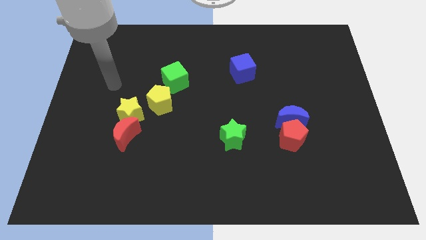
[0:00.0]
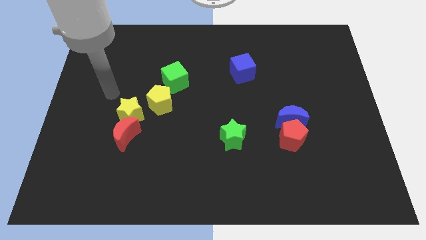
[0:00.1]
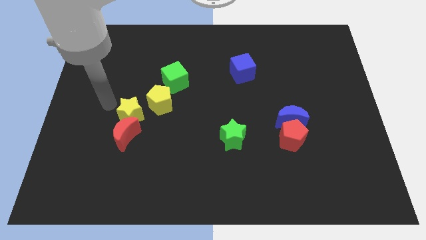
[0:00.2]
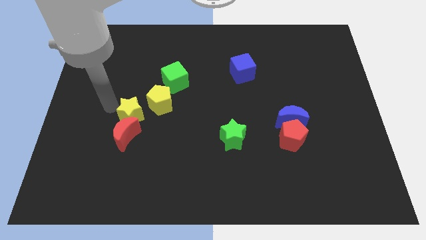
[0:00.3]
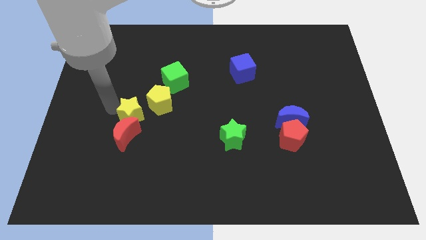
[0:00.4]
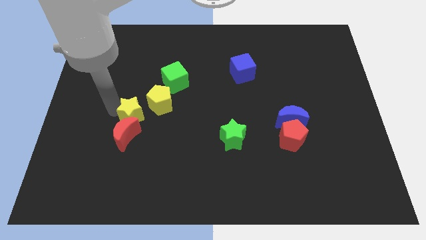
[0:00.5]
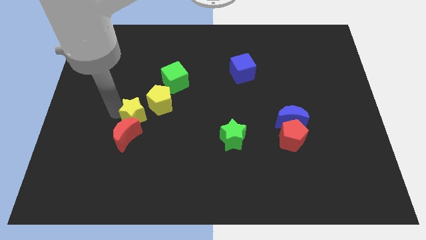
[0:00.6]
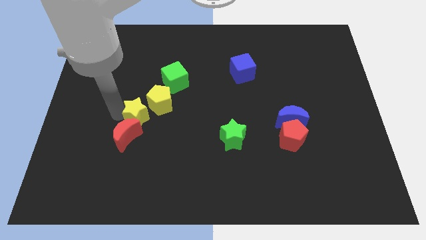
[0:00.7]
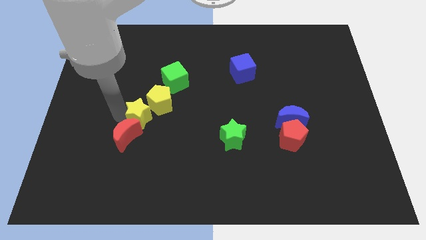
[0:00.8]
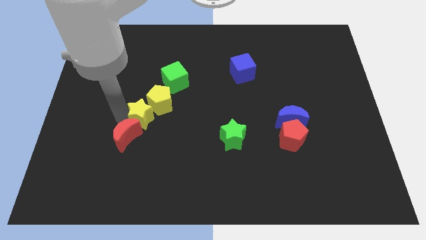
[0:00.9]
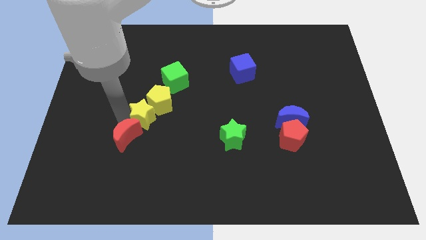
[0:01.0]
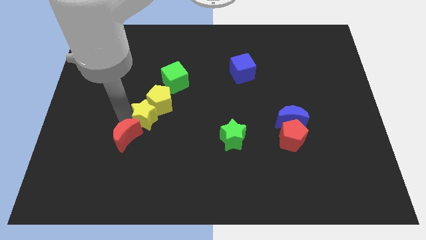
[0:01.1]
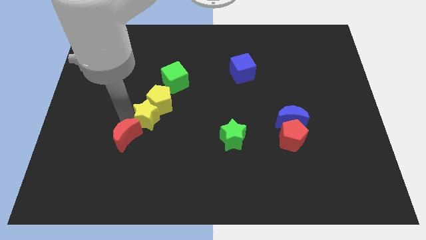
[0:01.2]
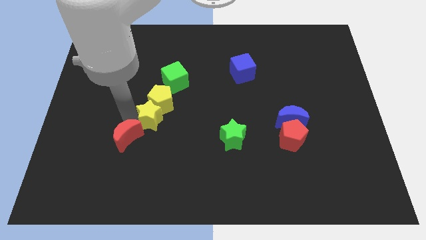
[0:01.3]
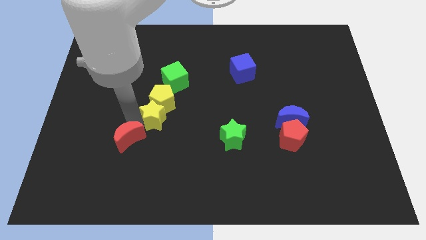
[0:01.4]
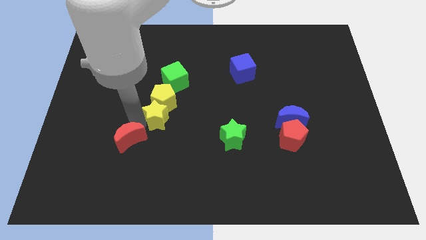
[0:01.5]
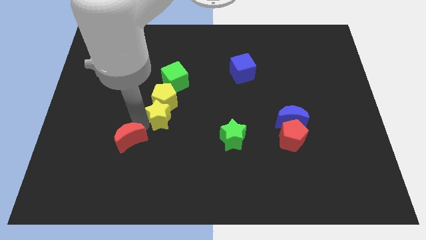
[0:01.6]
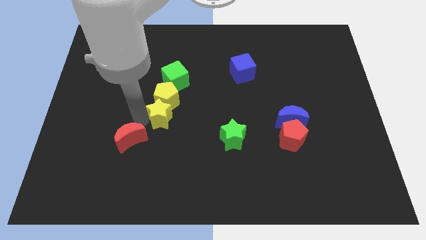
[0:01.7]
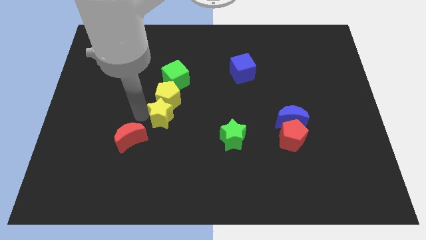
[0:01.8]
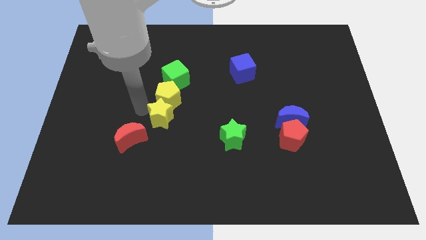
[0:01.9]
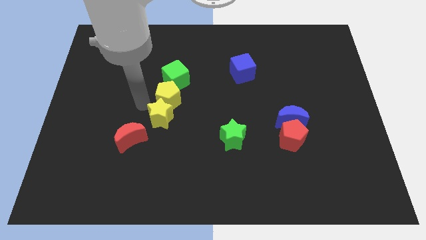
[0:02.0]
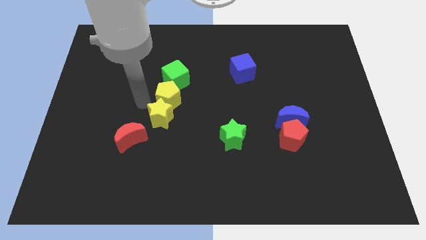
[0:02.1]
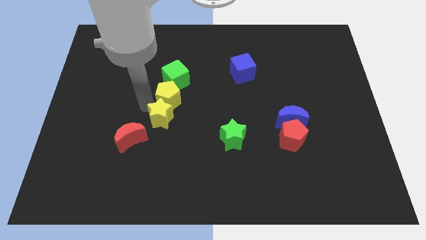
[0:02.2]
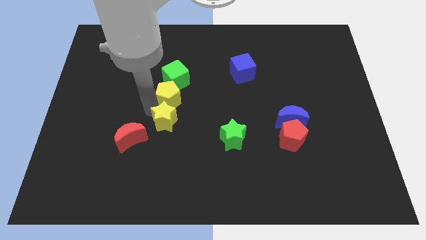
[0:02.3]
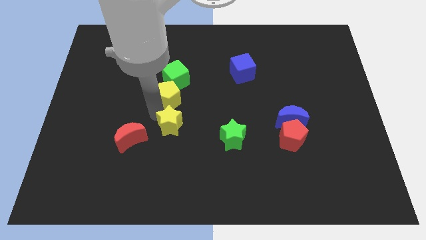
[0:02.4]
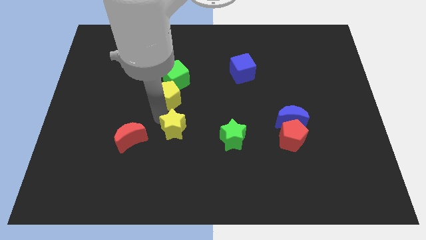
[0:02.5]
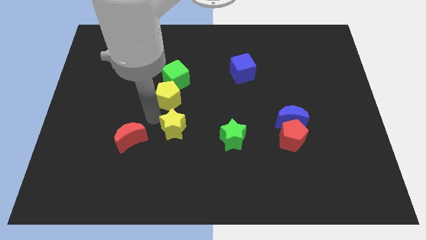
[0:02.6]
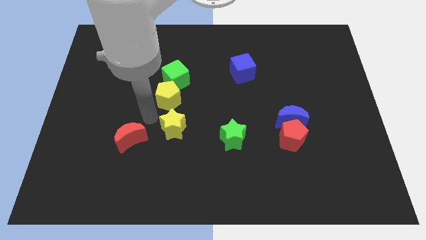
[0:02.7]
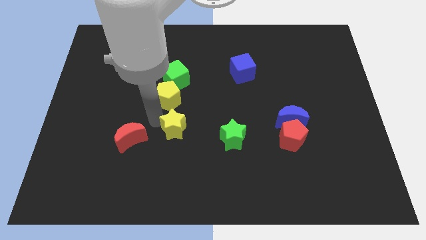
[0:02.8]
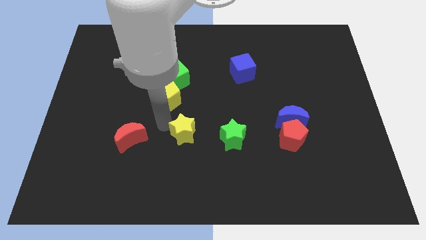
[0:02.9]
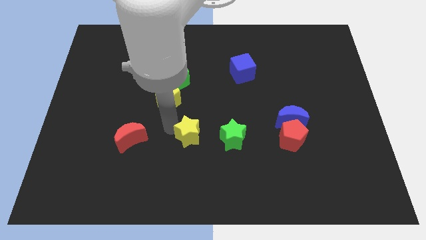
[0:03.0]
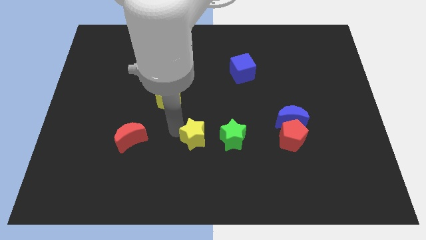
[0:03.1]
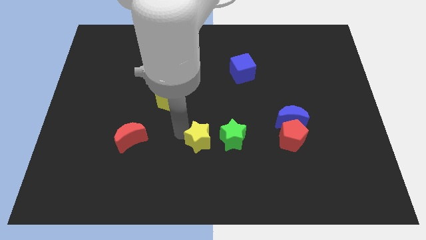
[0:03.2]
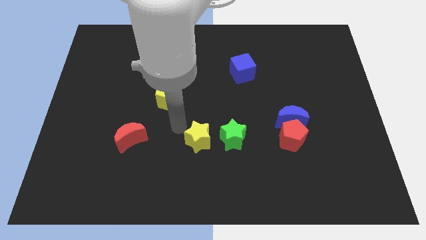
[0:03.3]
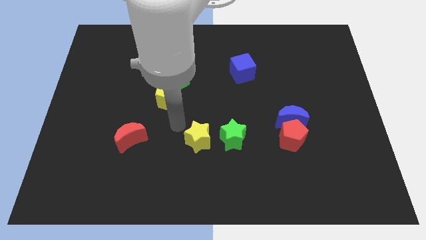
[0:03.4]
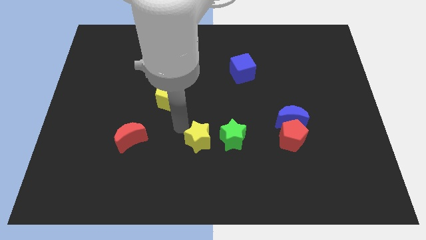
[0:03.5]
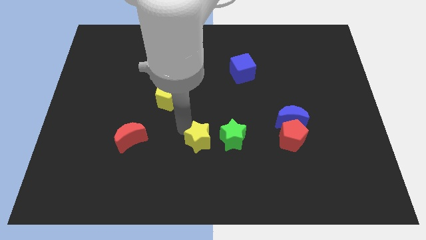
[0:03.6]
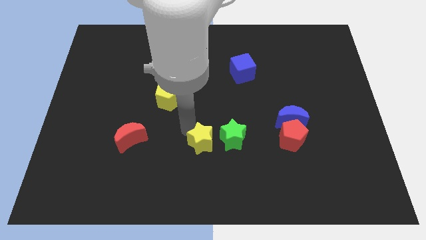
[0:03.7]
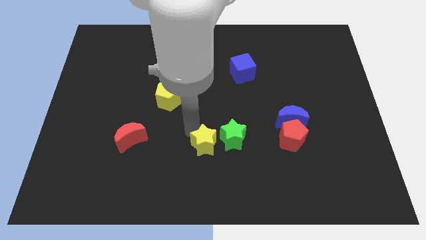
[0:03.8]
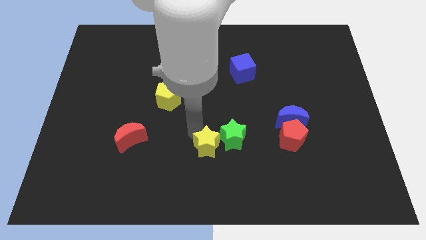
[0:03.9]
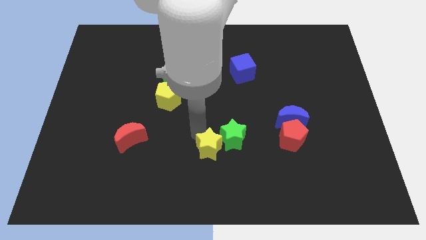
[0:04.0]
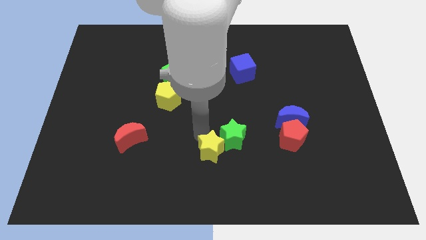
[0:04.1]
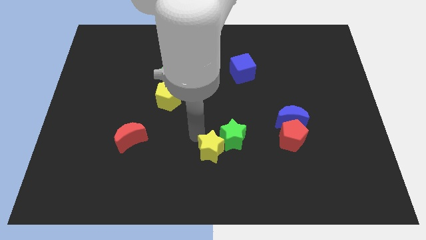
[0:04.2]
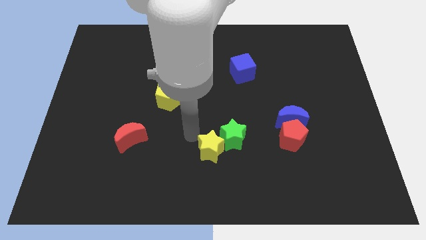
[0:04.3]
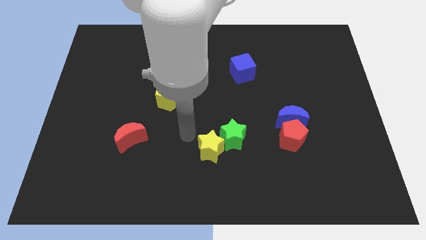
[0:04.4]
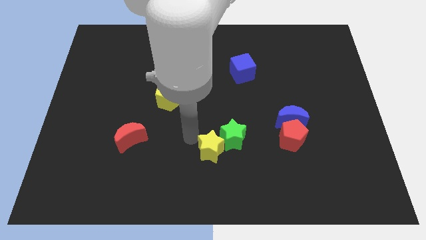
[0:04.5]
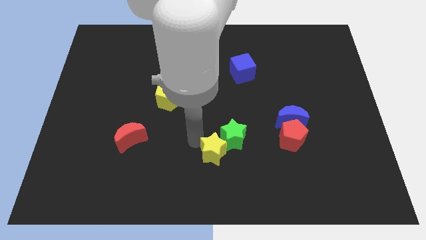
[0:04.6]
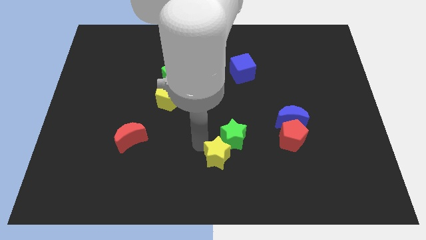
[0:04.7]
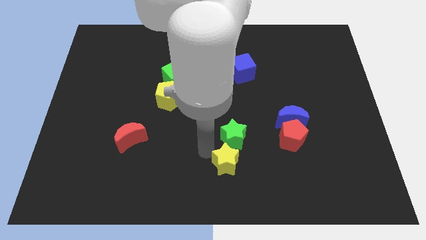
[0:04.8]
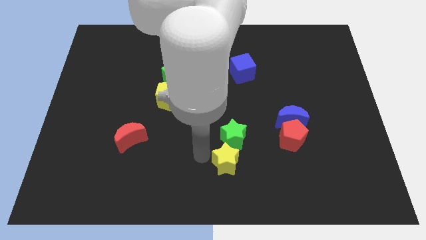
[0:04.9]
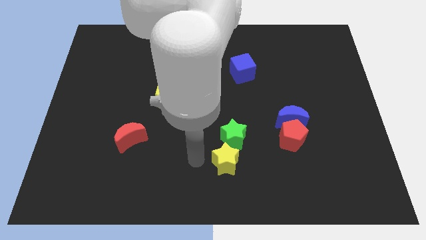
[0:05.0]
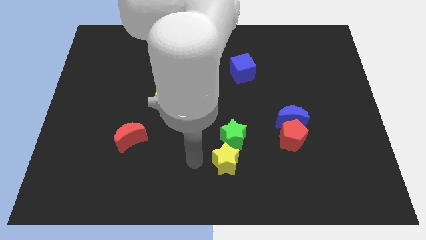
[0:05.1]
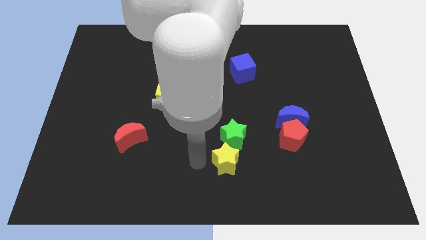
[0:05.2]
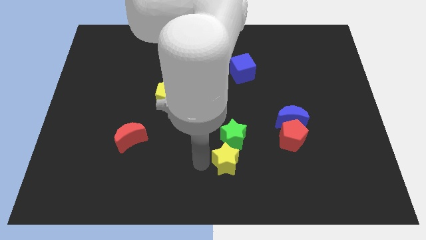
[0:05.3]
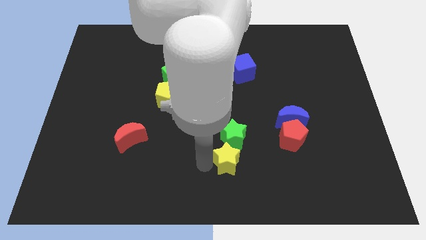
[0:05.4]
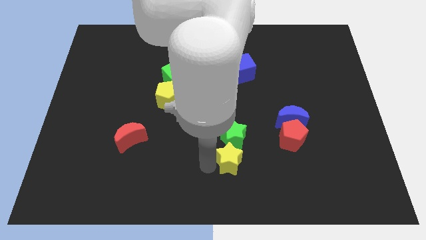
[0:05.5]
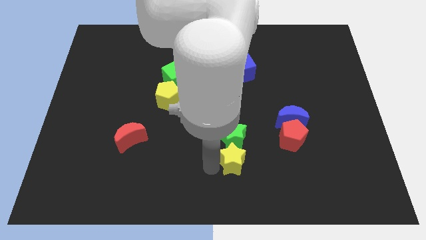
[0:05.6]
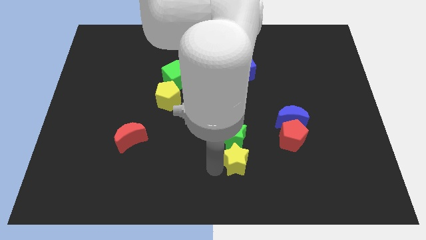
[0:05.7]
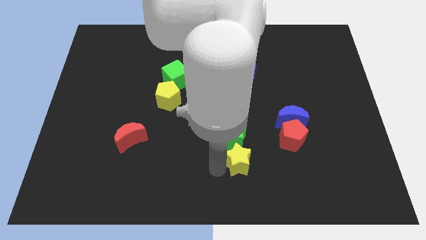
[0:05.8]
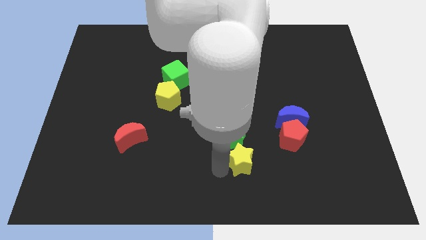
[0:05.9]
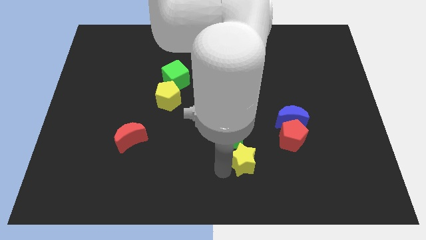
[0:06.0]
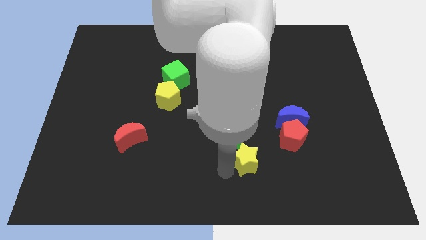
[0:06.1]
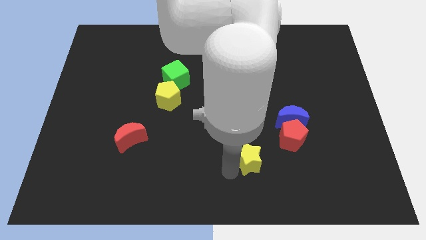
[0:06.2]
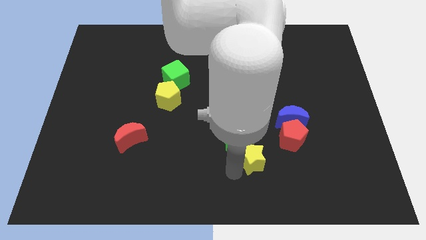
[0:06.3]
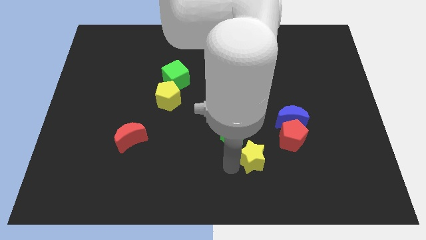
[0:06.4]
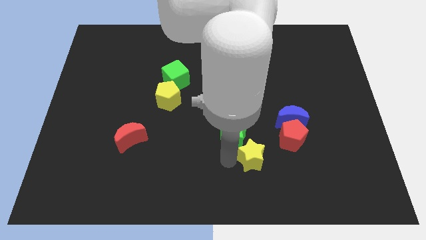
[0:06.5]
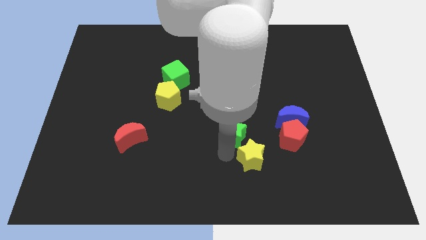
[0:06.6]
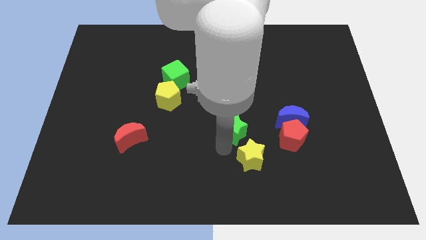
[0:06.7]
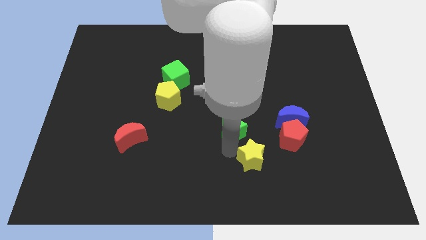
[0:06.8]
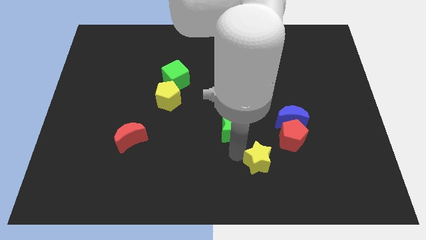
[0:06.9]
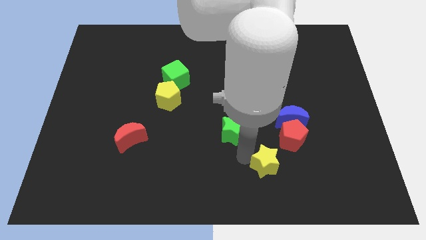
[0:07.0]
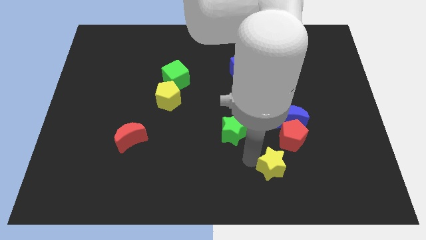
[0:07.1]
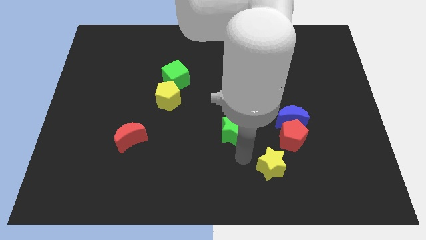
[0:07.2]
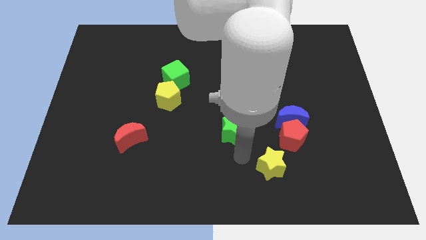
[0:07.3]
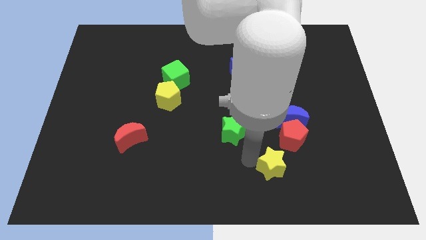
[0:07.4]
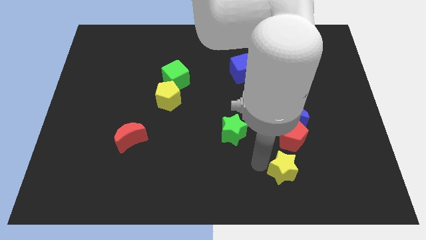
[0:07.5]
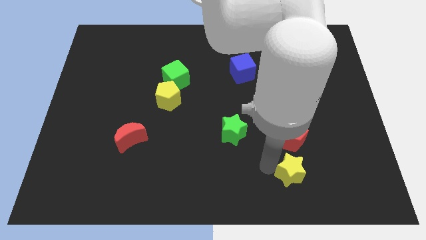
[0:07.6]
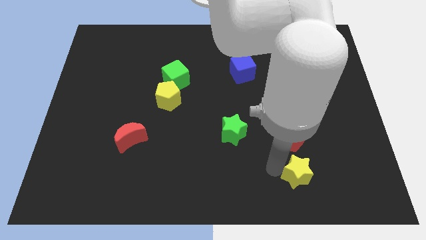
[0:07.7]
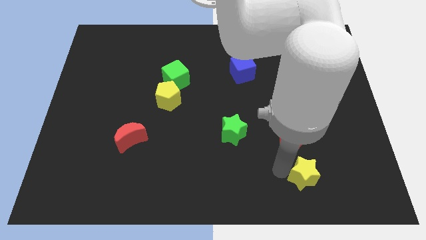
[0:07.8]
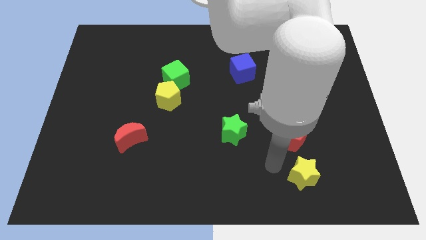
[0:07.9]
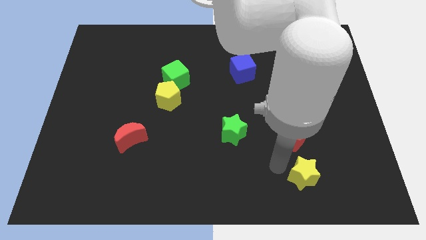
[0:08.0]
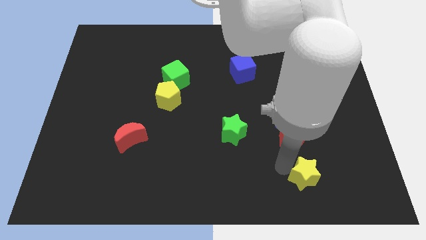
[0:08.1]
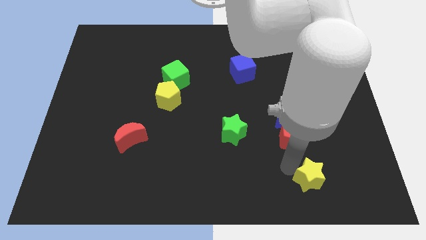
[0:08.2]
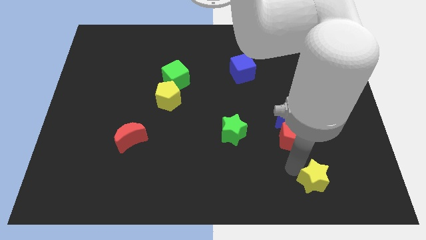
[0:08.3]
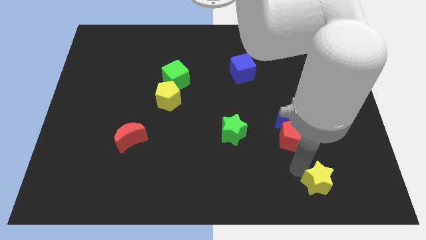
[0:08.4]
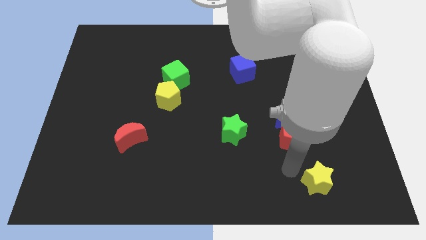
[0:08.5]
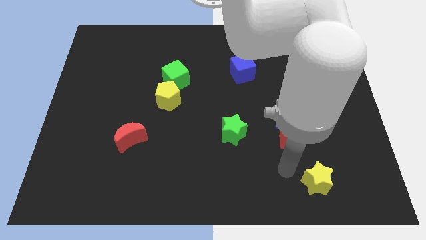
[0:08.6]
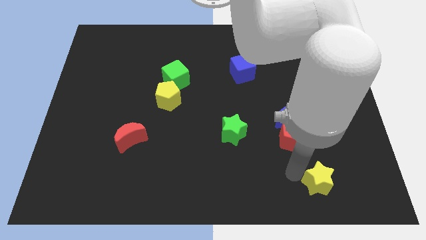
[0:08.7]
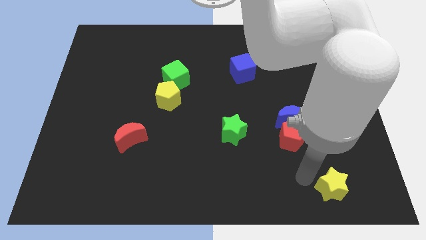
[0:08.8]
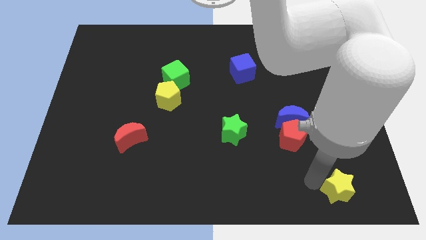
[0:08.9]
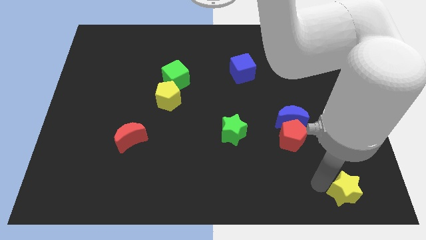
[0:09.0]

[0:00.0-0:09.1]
push the yellow star to the lower right corner
